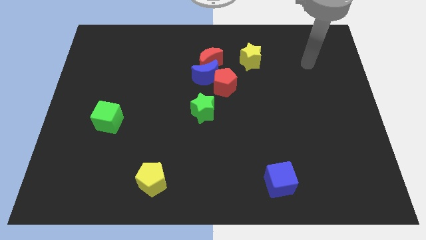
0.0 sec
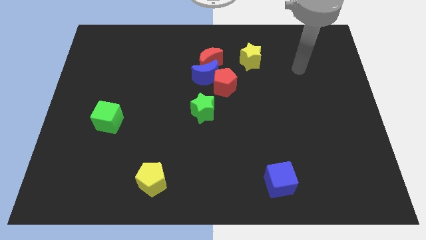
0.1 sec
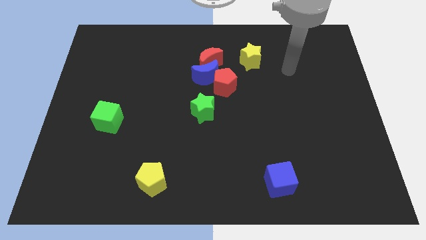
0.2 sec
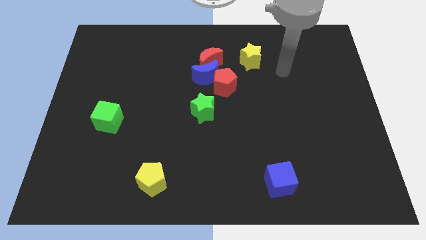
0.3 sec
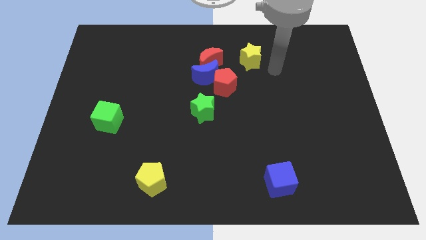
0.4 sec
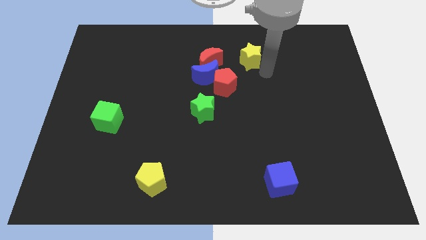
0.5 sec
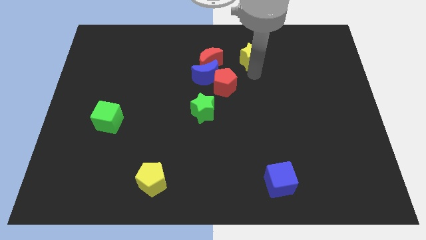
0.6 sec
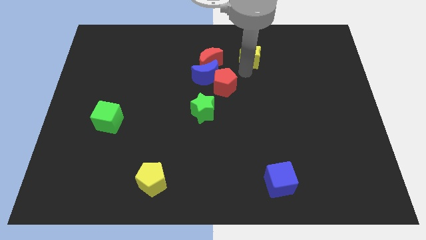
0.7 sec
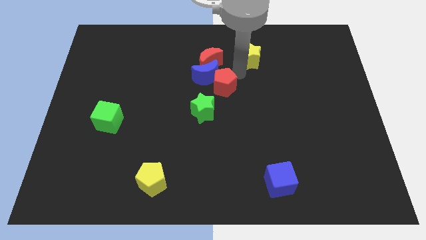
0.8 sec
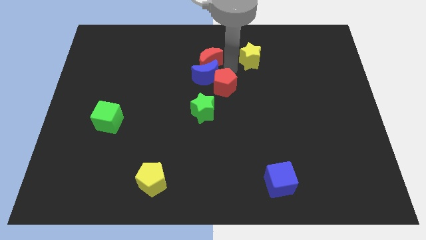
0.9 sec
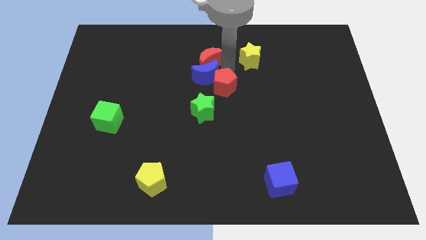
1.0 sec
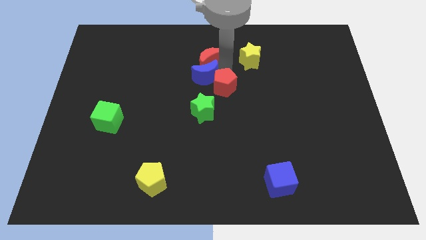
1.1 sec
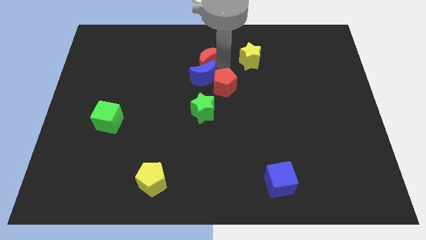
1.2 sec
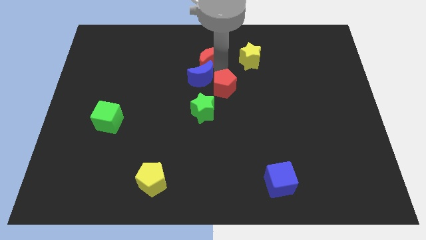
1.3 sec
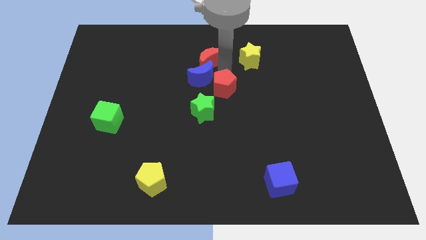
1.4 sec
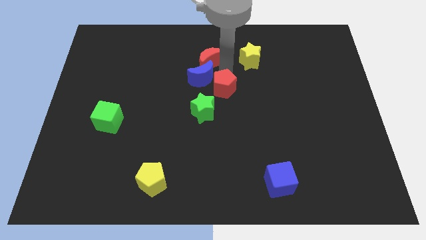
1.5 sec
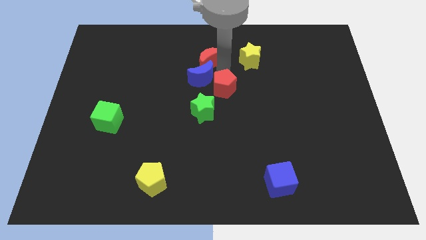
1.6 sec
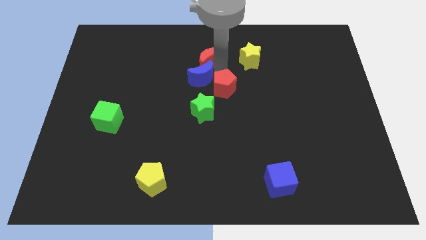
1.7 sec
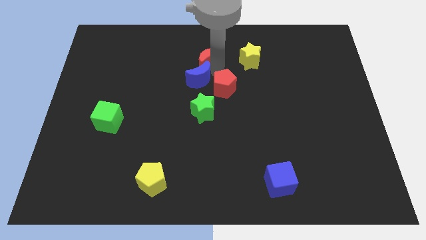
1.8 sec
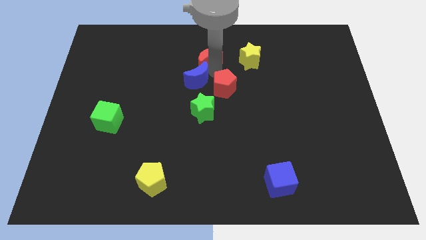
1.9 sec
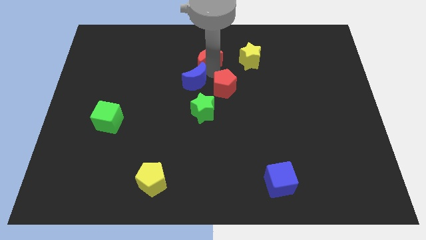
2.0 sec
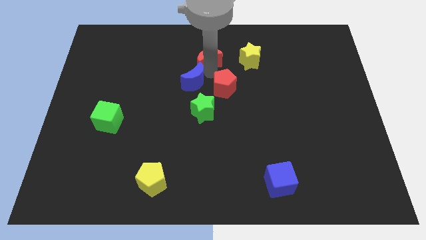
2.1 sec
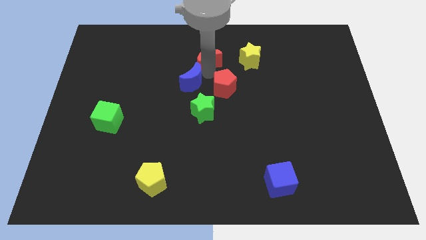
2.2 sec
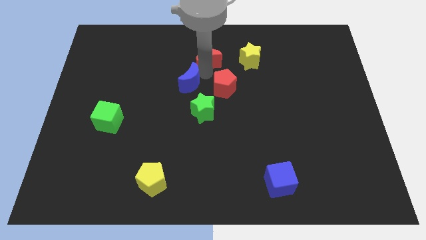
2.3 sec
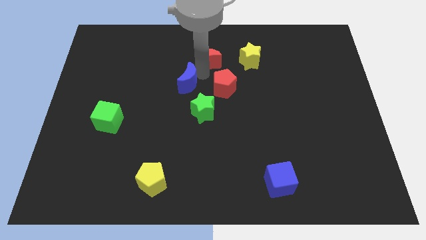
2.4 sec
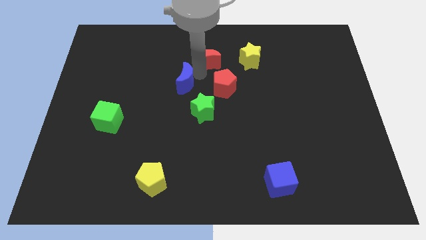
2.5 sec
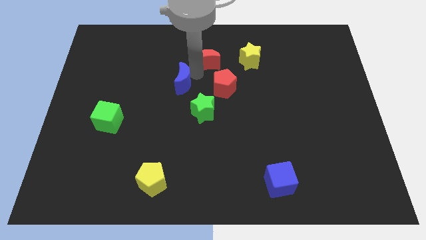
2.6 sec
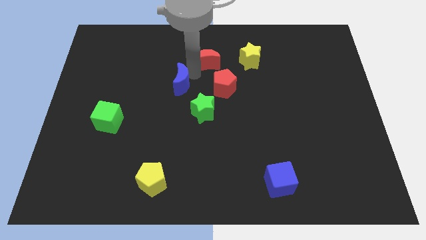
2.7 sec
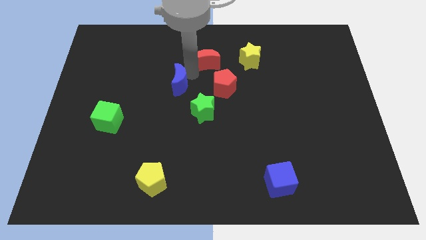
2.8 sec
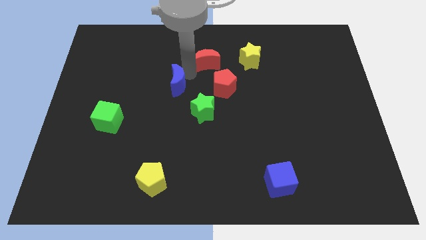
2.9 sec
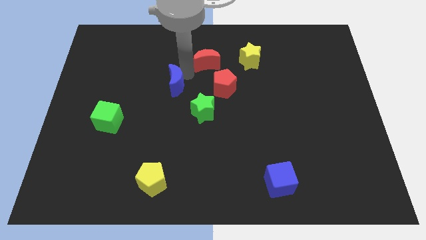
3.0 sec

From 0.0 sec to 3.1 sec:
move the blue moon away from the red moon and red pentagon

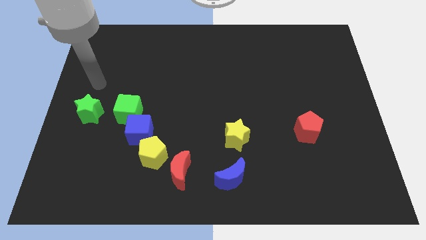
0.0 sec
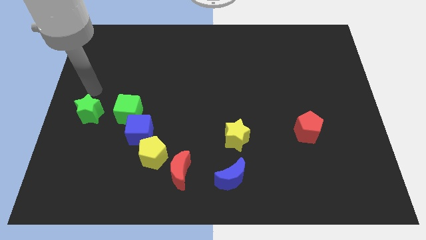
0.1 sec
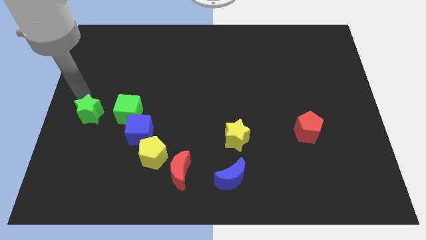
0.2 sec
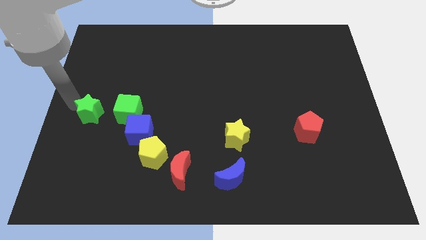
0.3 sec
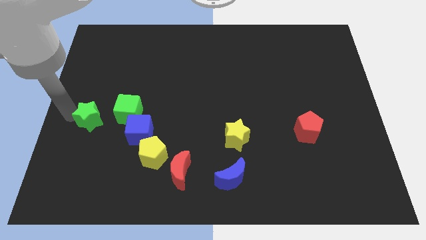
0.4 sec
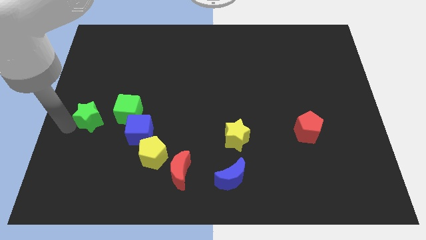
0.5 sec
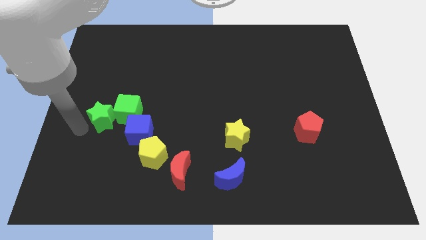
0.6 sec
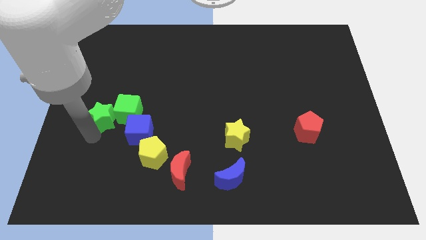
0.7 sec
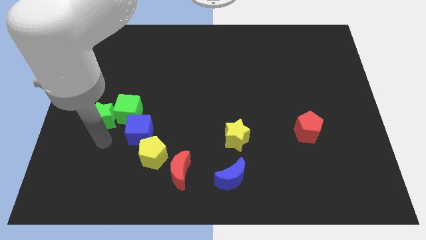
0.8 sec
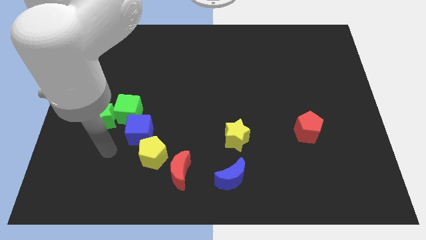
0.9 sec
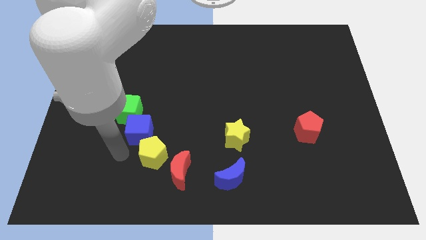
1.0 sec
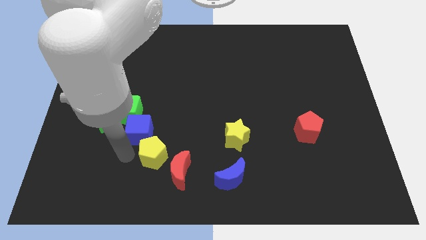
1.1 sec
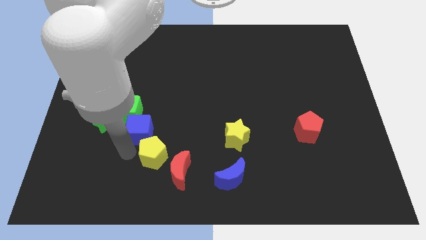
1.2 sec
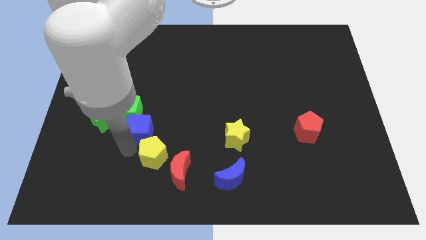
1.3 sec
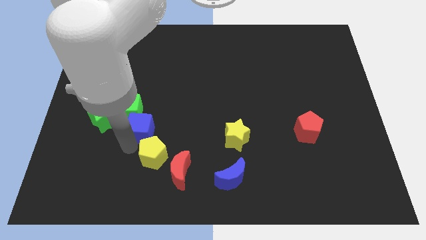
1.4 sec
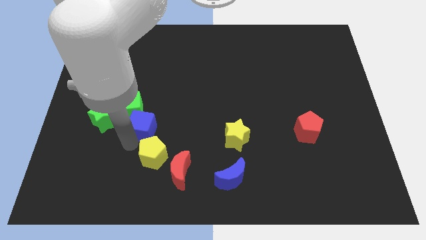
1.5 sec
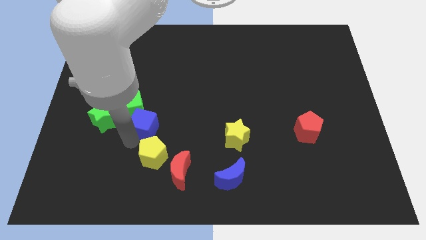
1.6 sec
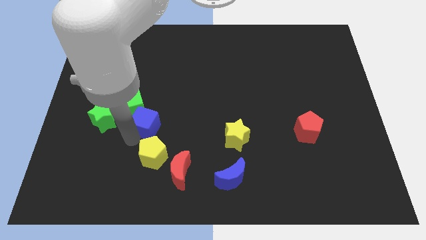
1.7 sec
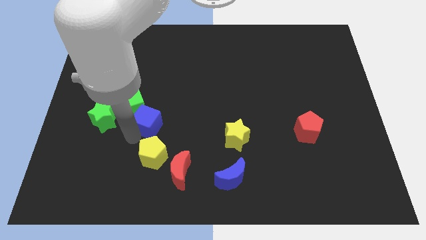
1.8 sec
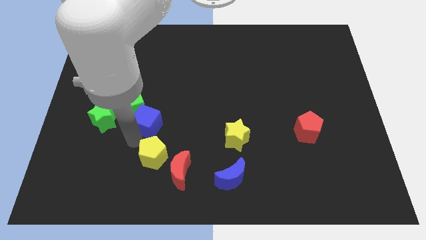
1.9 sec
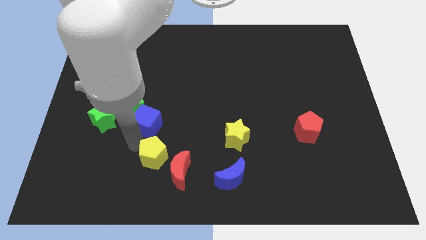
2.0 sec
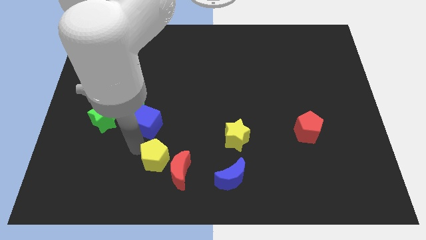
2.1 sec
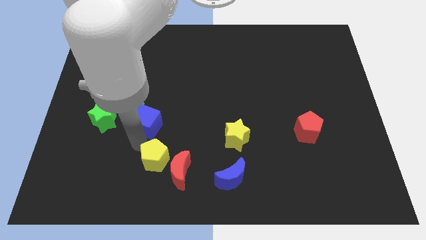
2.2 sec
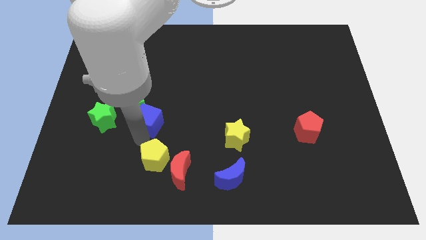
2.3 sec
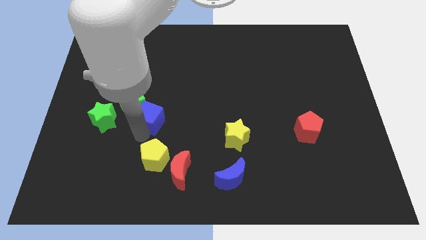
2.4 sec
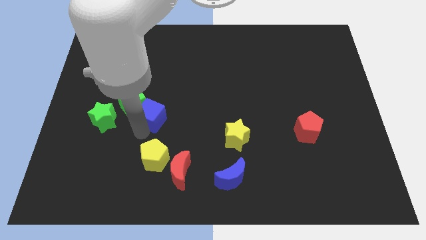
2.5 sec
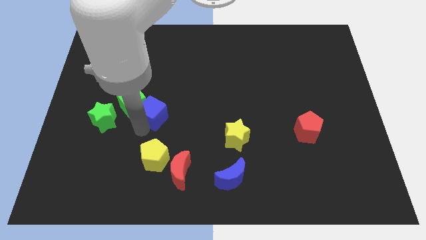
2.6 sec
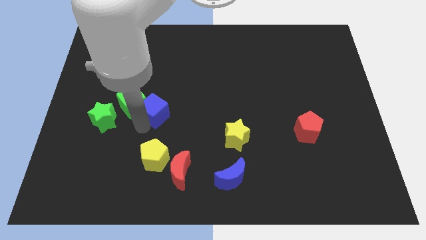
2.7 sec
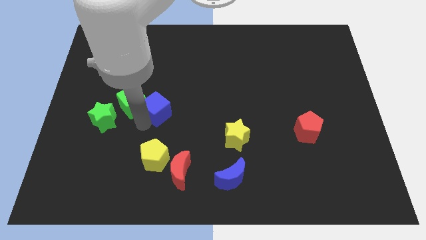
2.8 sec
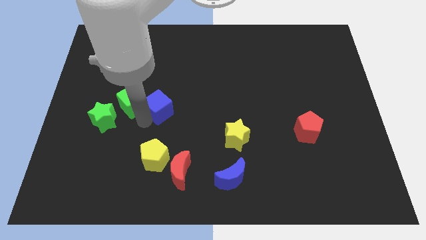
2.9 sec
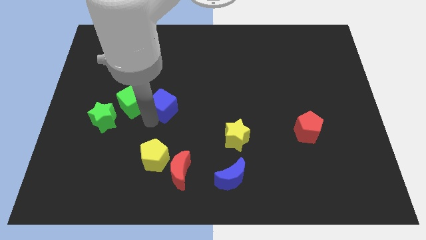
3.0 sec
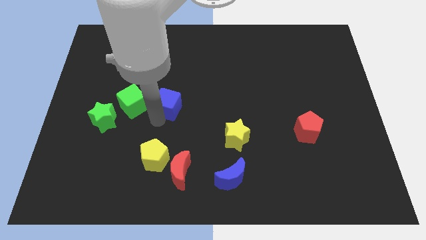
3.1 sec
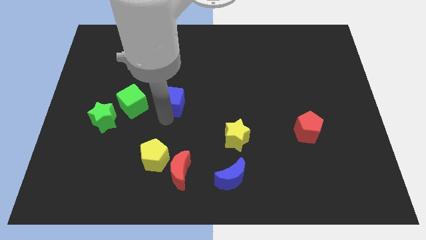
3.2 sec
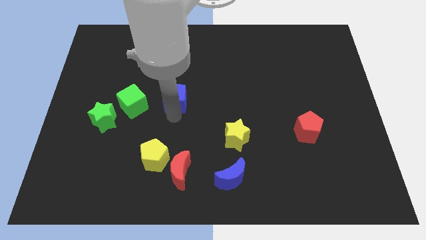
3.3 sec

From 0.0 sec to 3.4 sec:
move the blue cube away from the green cube and yellow pentagon

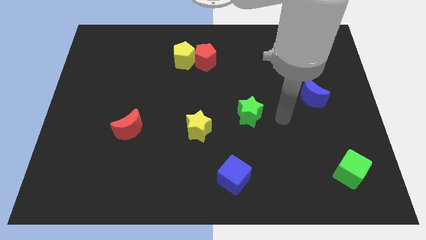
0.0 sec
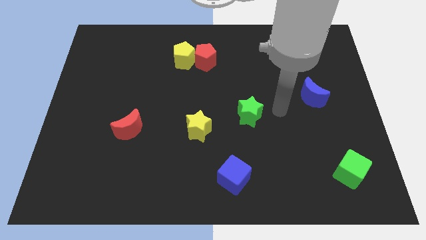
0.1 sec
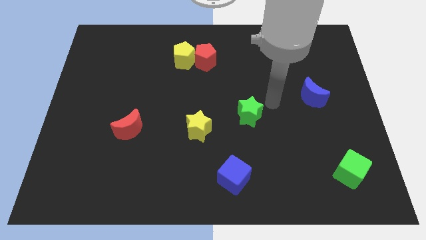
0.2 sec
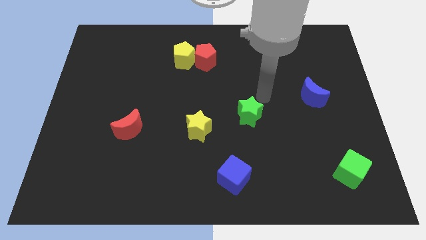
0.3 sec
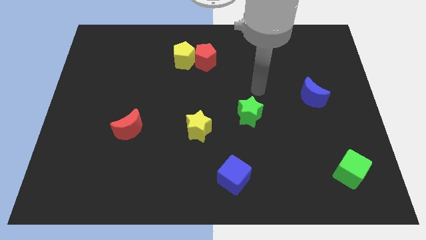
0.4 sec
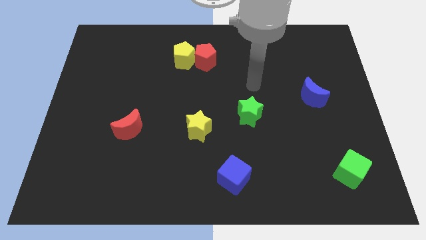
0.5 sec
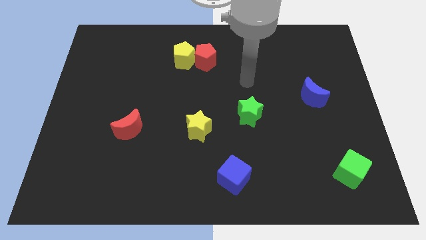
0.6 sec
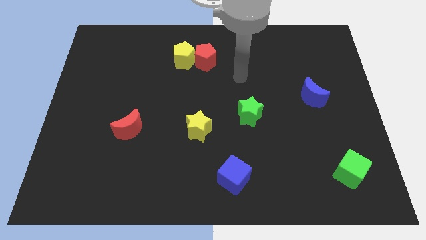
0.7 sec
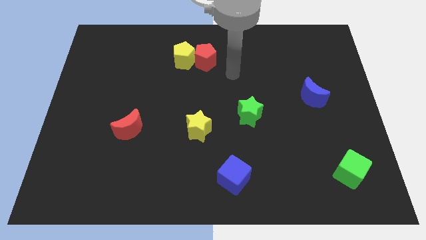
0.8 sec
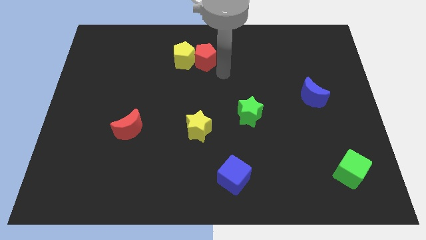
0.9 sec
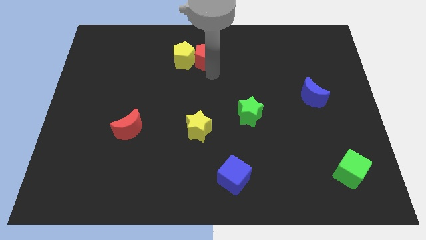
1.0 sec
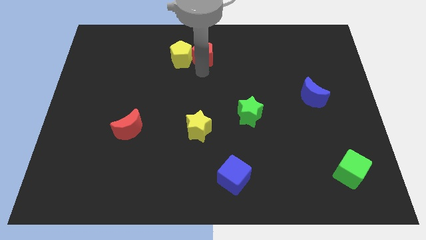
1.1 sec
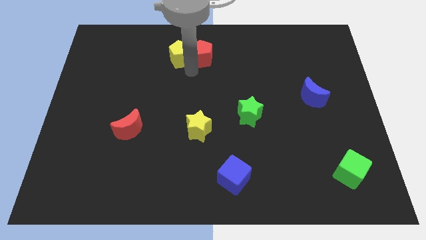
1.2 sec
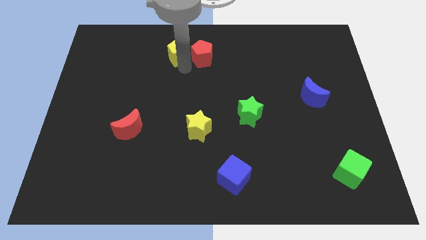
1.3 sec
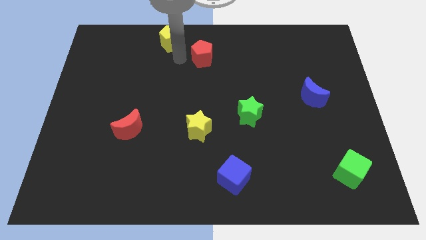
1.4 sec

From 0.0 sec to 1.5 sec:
pull the red pentagon apart from the yellow pentagon

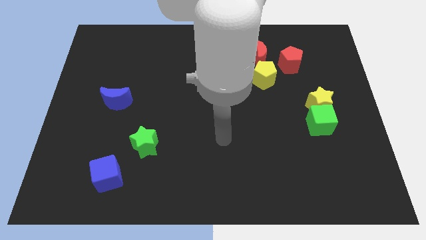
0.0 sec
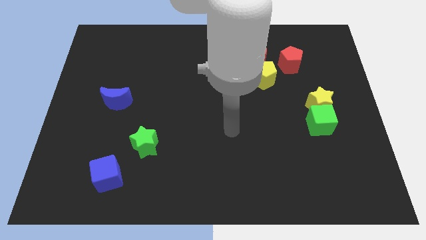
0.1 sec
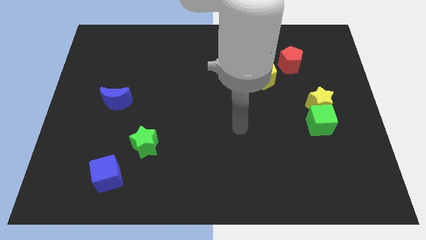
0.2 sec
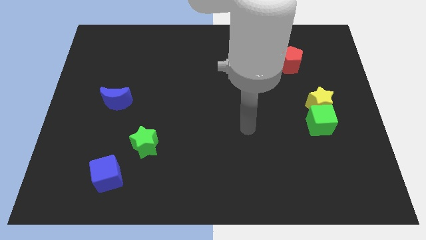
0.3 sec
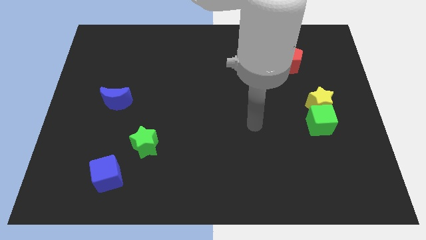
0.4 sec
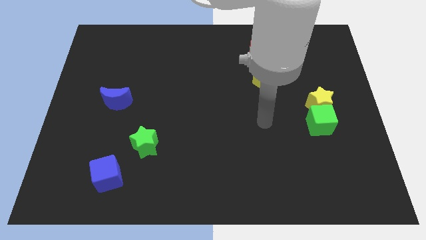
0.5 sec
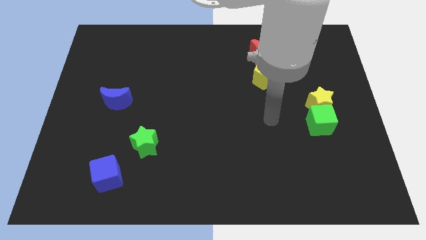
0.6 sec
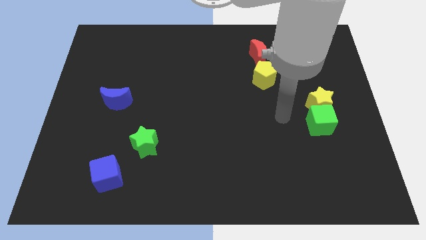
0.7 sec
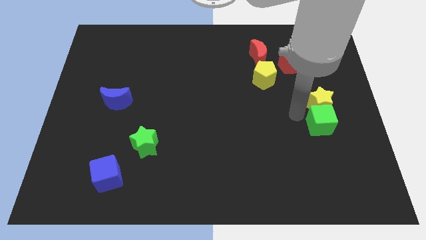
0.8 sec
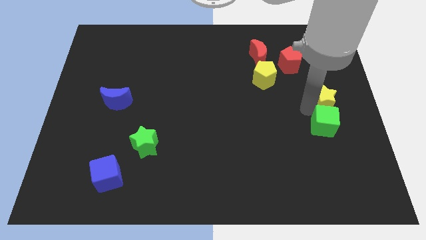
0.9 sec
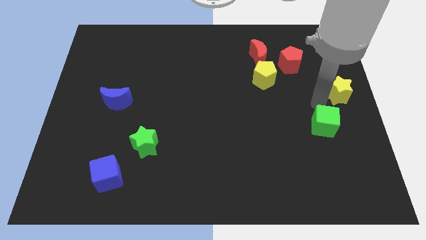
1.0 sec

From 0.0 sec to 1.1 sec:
pull the green cube apart from the yellow star

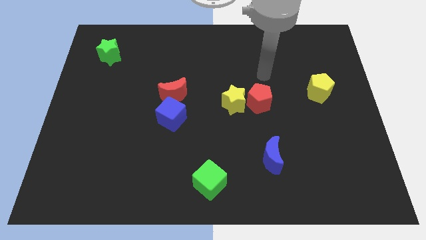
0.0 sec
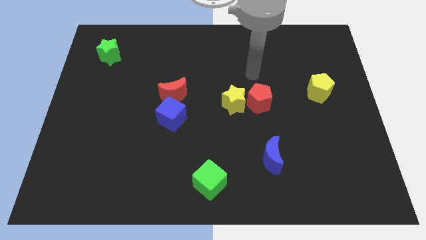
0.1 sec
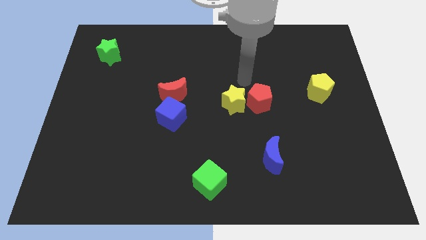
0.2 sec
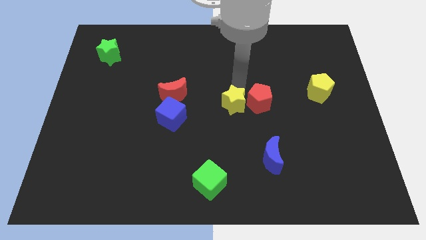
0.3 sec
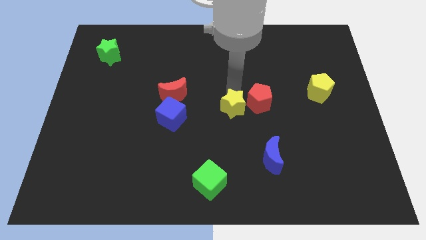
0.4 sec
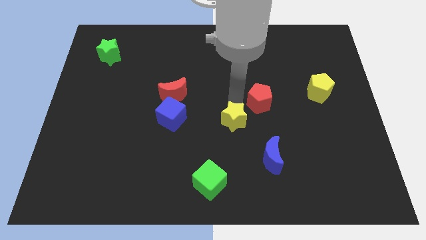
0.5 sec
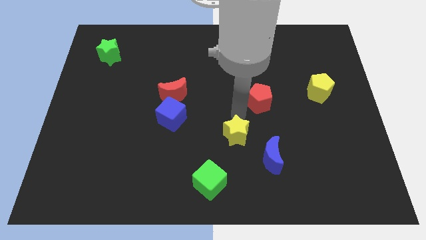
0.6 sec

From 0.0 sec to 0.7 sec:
pull the red pentagon apart from the yellow star
